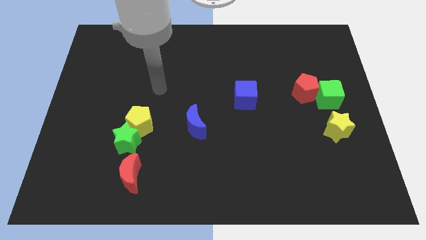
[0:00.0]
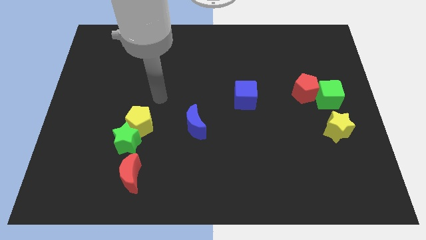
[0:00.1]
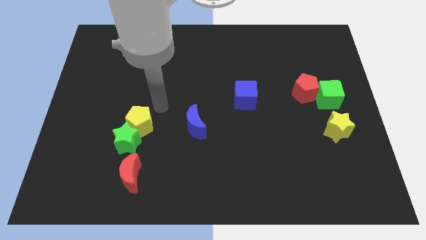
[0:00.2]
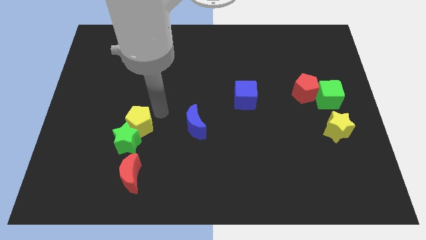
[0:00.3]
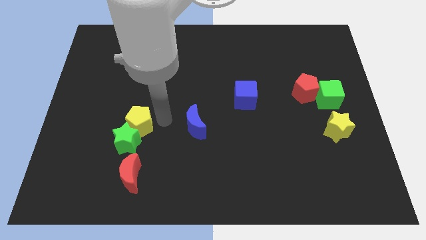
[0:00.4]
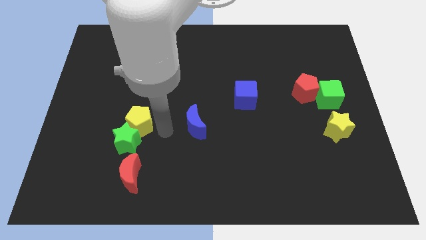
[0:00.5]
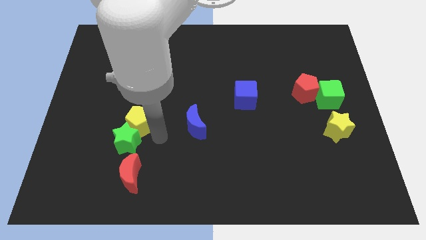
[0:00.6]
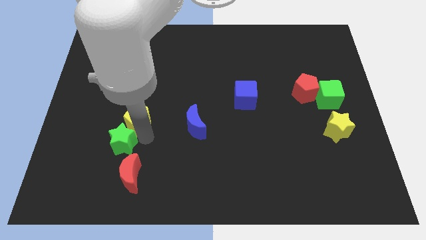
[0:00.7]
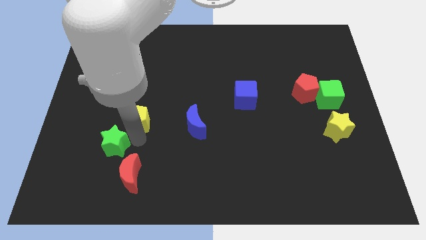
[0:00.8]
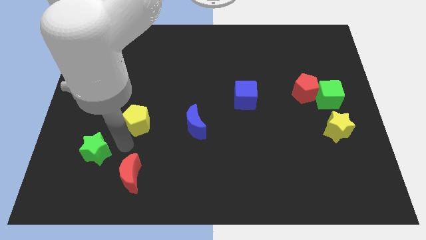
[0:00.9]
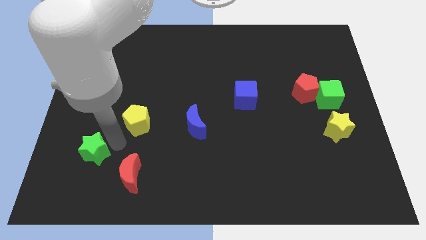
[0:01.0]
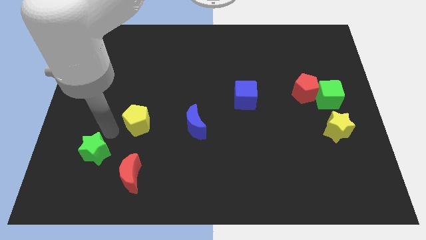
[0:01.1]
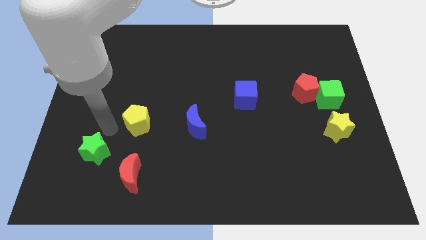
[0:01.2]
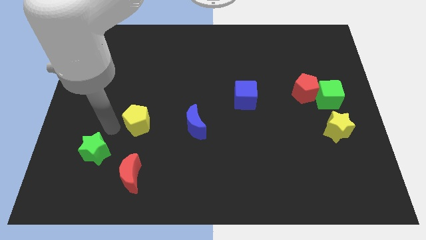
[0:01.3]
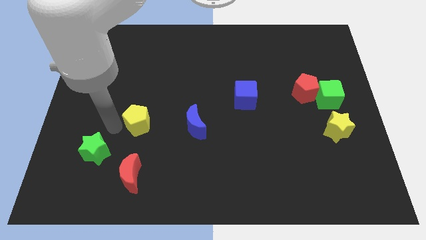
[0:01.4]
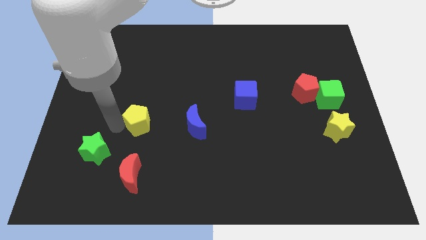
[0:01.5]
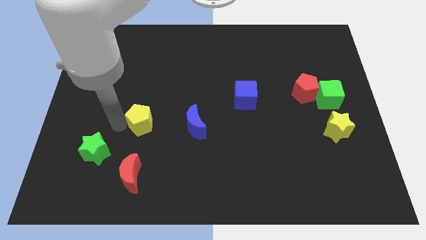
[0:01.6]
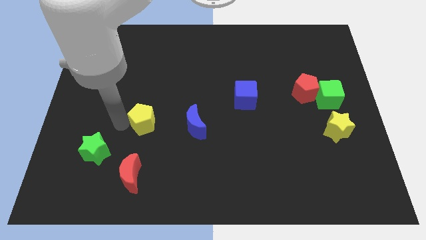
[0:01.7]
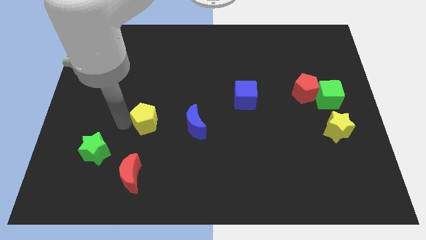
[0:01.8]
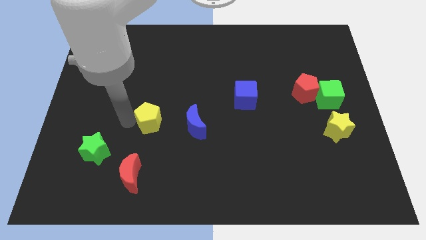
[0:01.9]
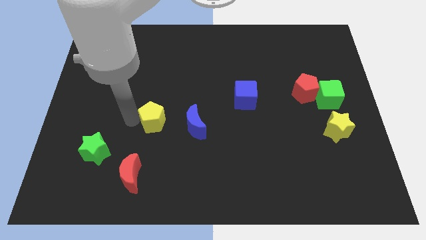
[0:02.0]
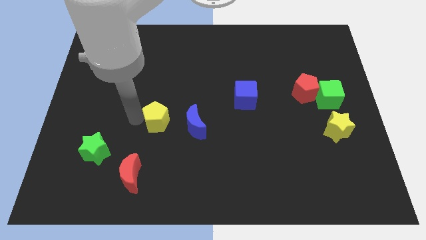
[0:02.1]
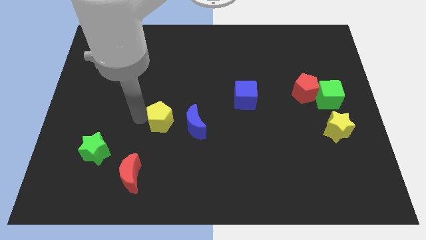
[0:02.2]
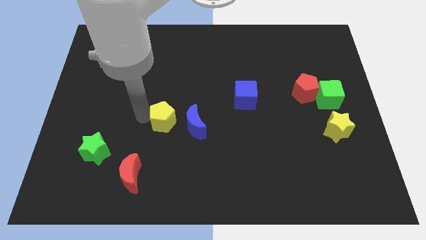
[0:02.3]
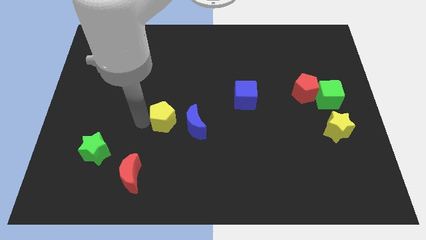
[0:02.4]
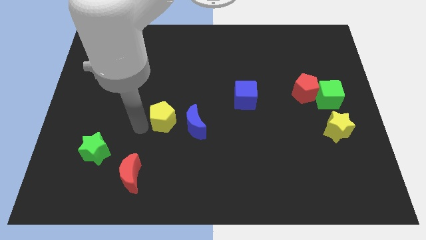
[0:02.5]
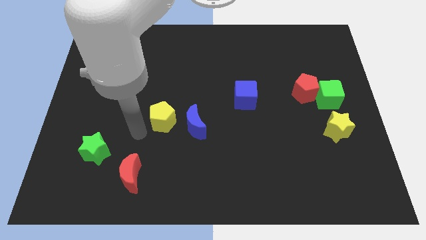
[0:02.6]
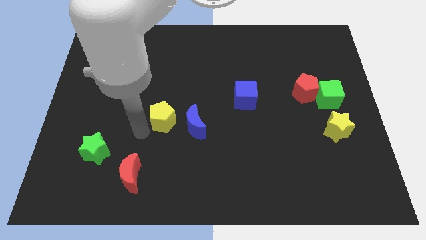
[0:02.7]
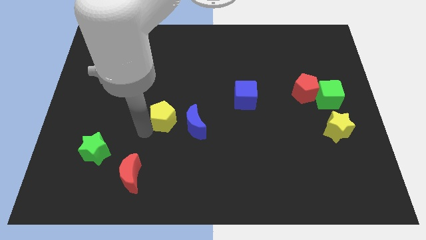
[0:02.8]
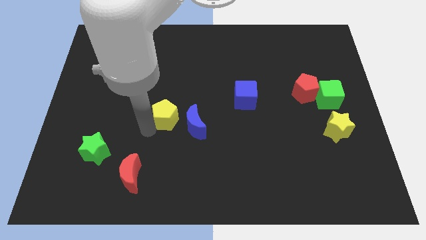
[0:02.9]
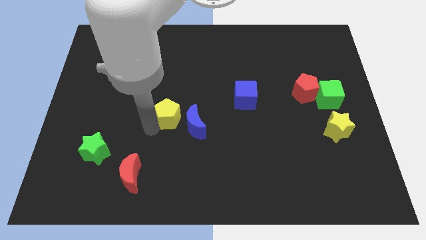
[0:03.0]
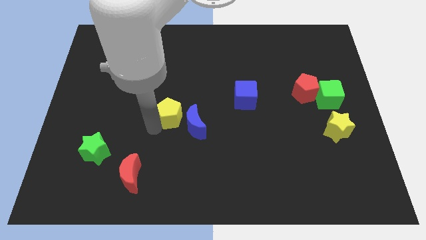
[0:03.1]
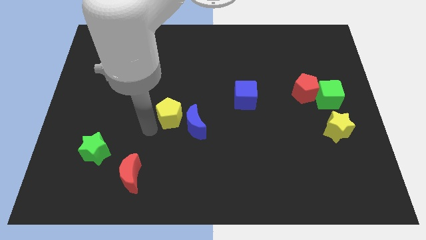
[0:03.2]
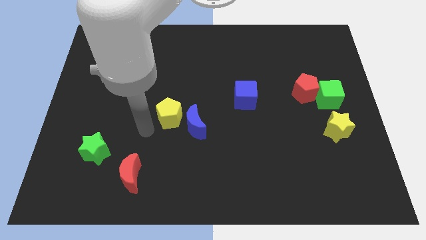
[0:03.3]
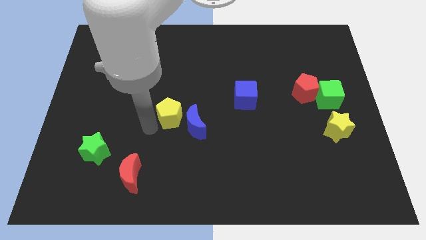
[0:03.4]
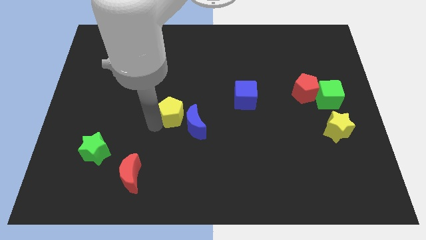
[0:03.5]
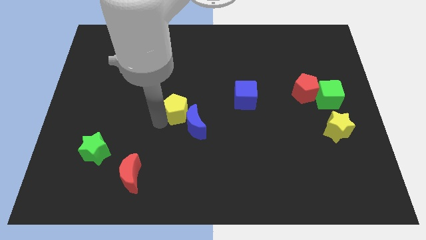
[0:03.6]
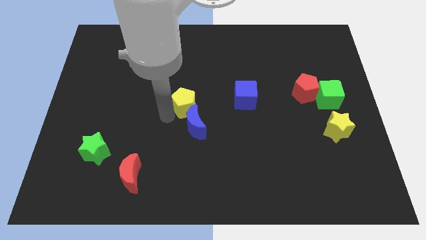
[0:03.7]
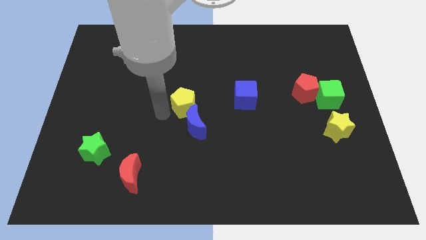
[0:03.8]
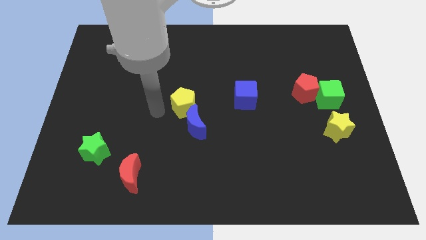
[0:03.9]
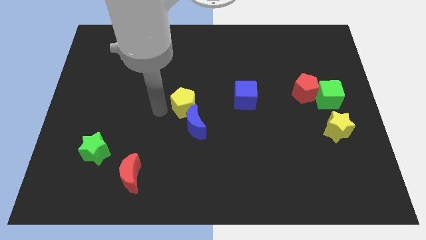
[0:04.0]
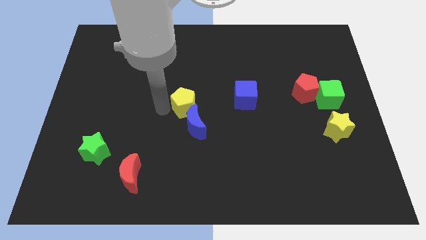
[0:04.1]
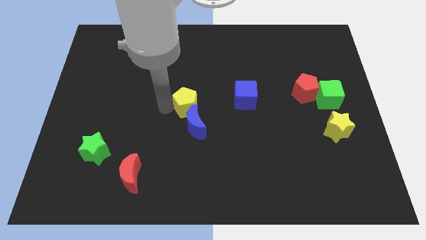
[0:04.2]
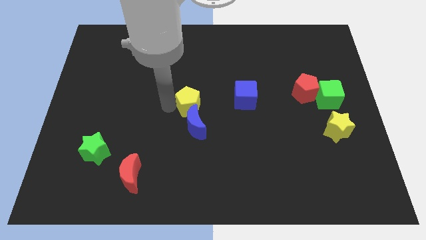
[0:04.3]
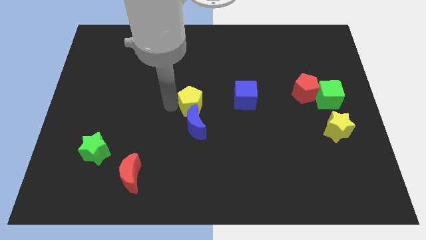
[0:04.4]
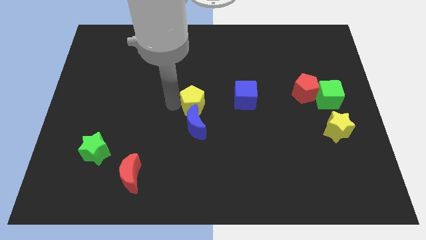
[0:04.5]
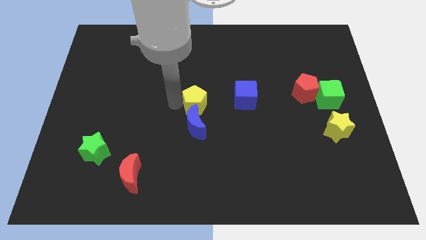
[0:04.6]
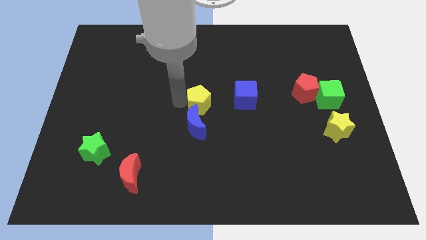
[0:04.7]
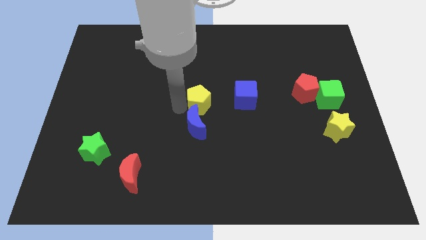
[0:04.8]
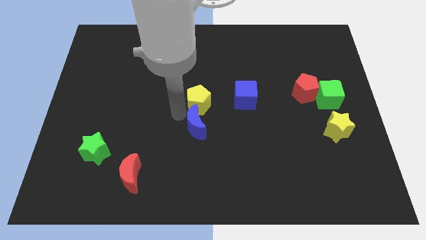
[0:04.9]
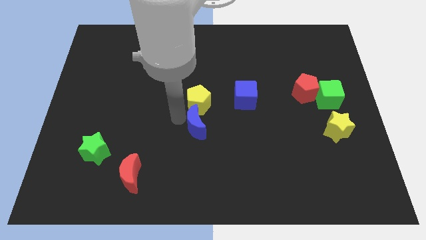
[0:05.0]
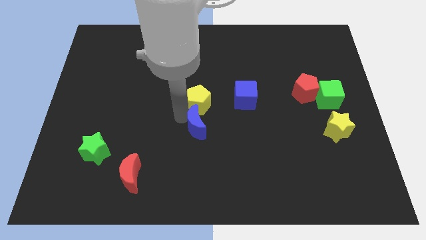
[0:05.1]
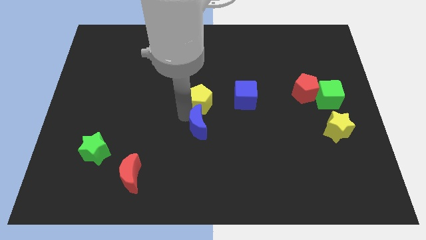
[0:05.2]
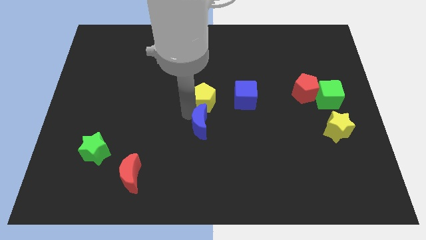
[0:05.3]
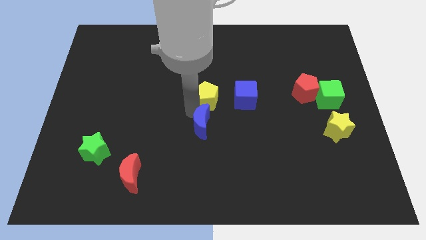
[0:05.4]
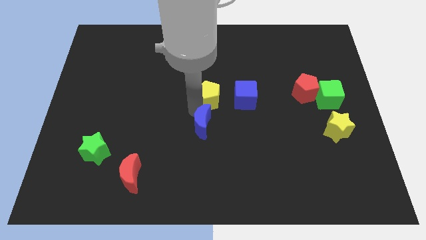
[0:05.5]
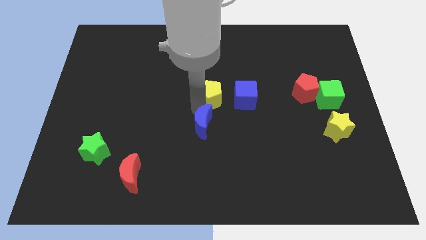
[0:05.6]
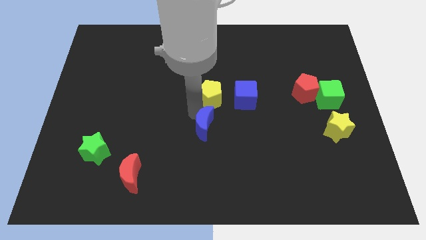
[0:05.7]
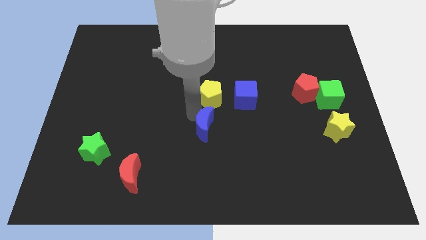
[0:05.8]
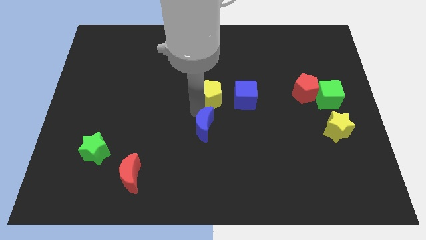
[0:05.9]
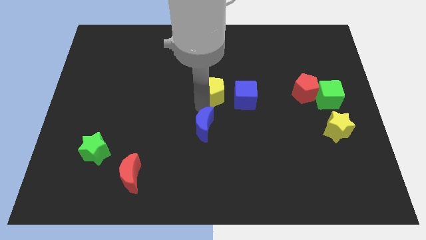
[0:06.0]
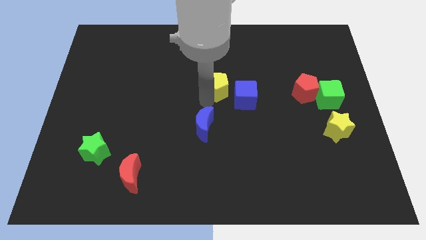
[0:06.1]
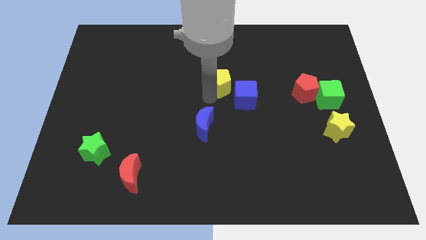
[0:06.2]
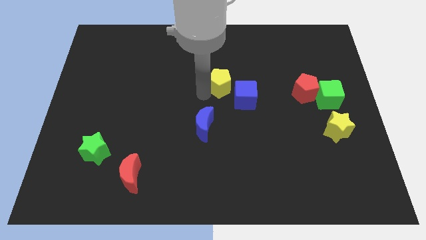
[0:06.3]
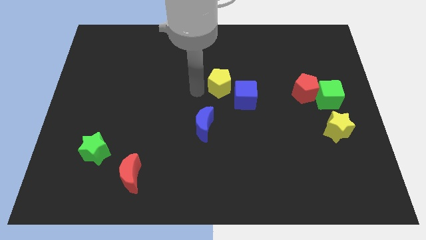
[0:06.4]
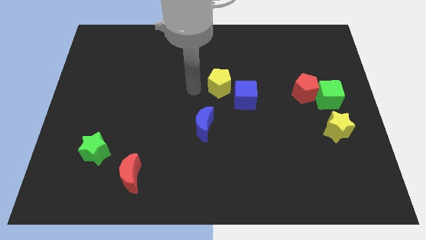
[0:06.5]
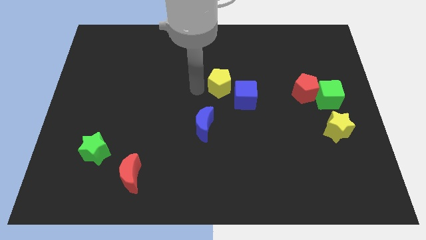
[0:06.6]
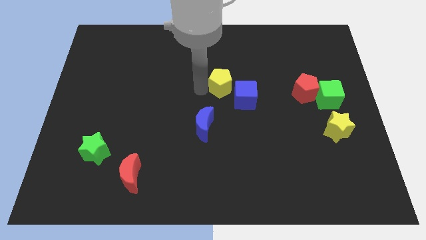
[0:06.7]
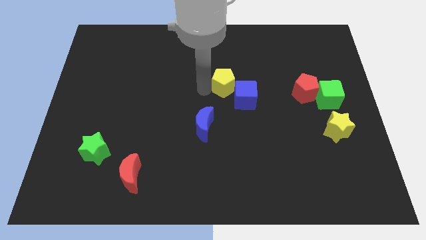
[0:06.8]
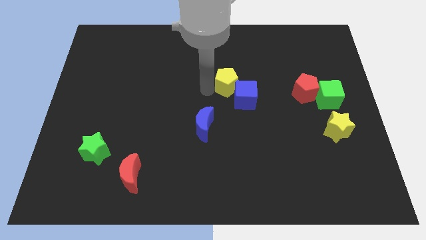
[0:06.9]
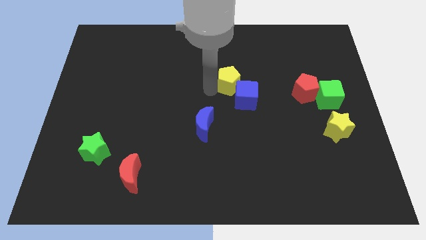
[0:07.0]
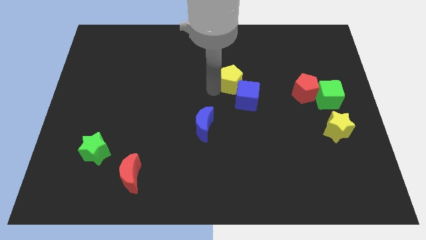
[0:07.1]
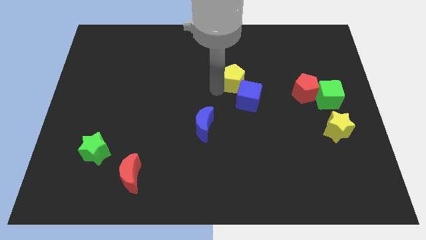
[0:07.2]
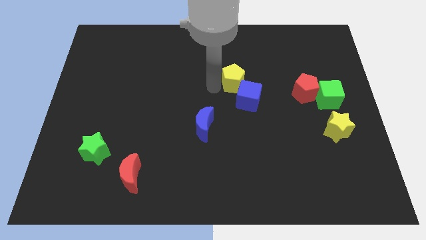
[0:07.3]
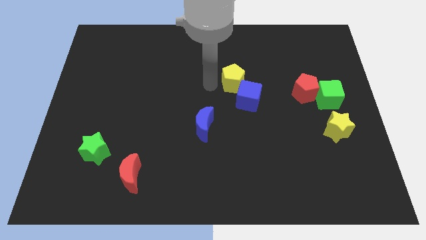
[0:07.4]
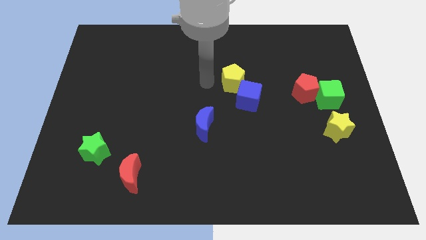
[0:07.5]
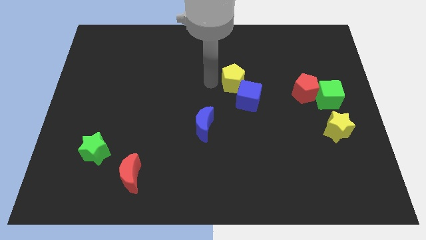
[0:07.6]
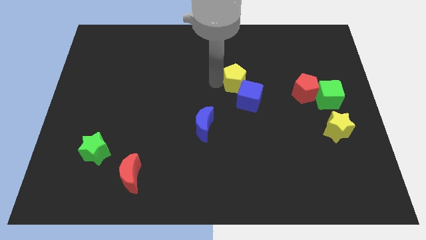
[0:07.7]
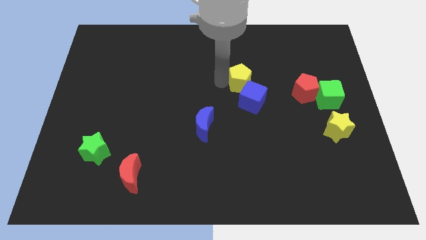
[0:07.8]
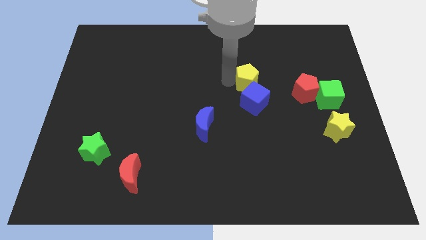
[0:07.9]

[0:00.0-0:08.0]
slide the yellow pentagon to the left side of the red pentagon
